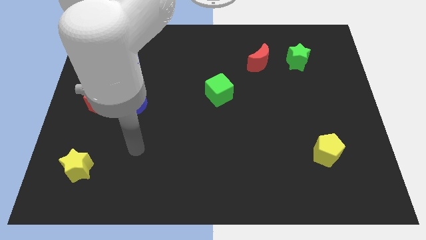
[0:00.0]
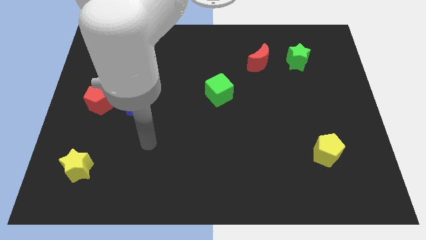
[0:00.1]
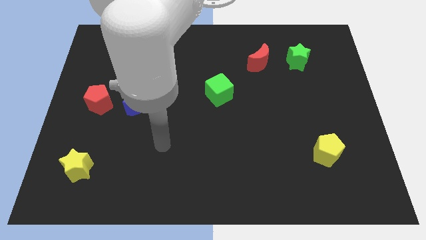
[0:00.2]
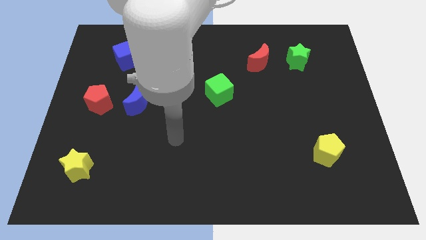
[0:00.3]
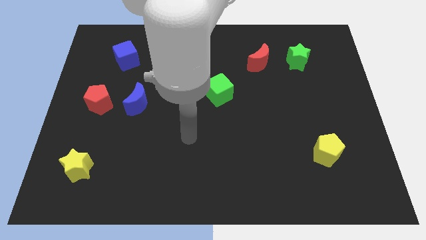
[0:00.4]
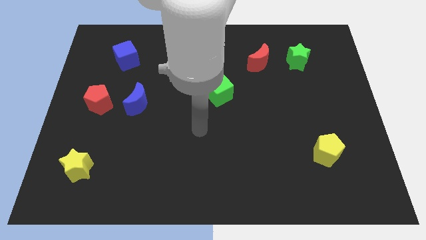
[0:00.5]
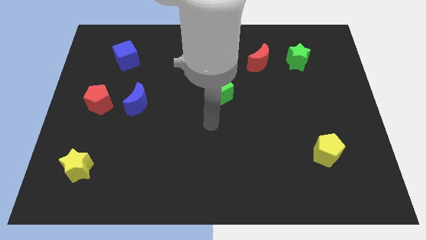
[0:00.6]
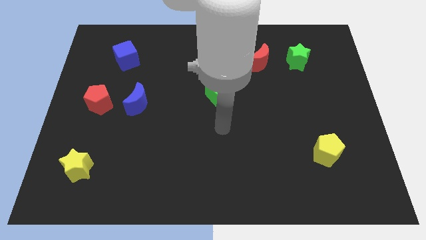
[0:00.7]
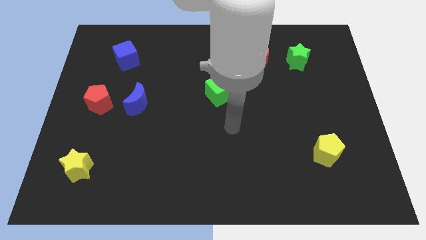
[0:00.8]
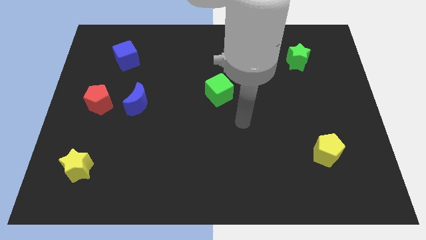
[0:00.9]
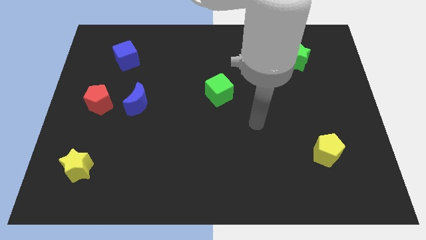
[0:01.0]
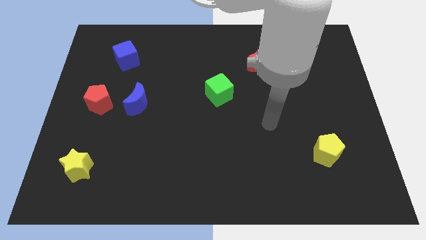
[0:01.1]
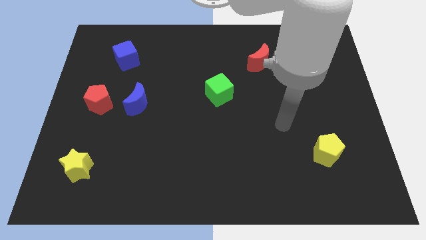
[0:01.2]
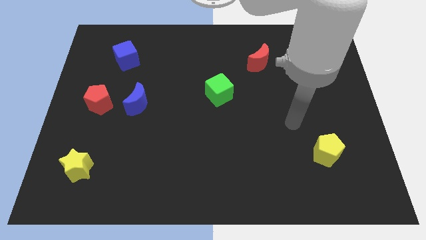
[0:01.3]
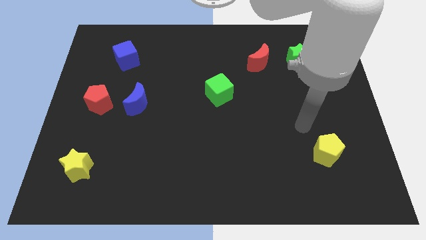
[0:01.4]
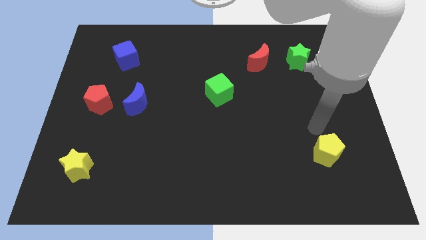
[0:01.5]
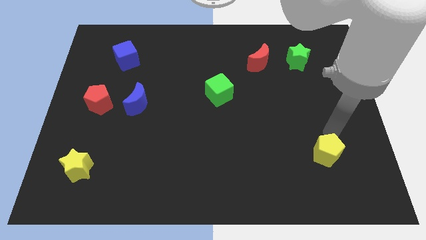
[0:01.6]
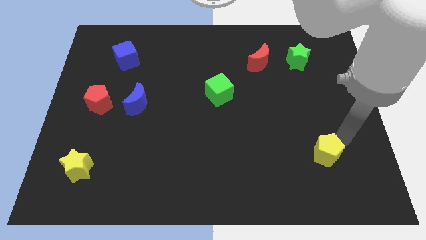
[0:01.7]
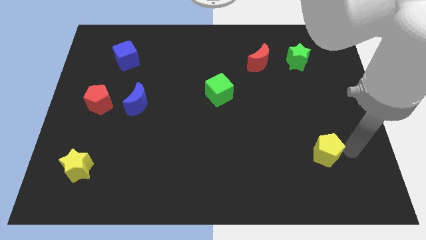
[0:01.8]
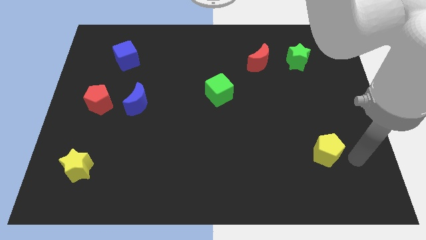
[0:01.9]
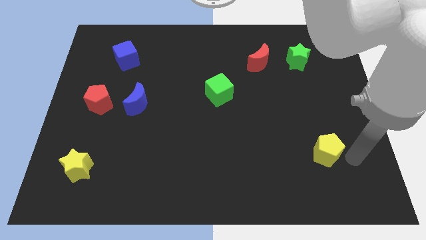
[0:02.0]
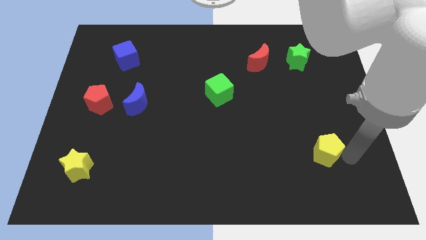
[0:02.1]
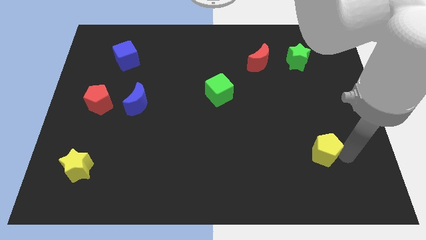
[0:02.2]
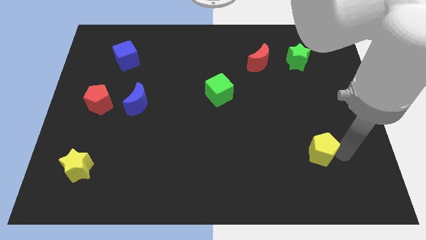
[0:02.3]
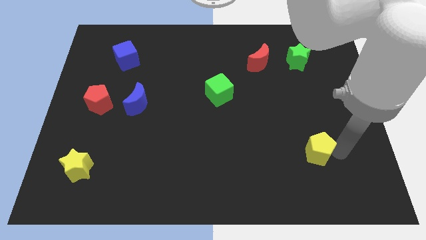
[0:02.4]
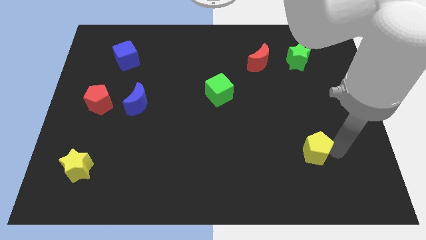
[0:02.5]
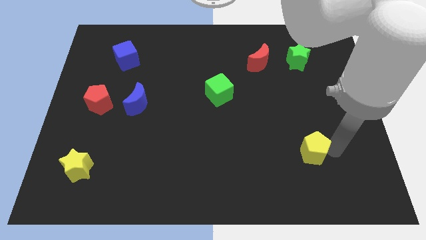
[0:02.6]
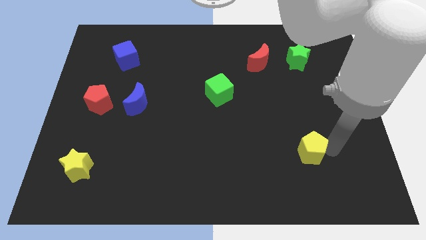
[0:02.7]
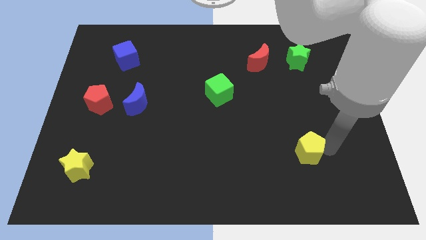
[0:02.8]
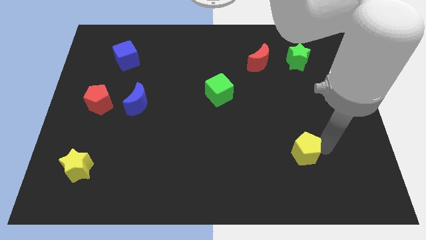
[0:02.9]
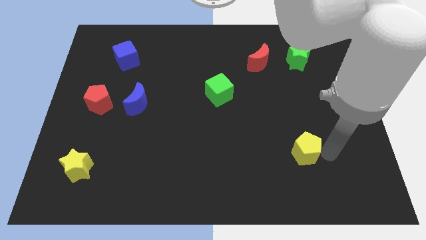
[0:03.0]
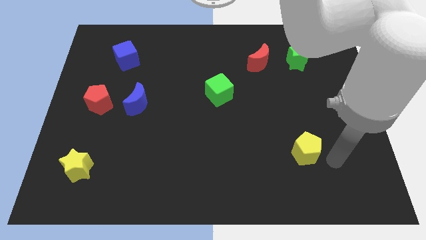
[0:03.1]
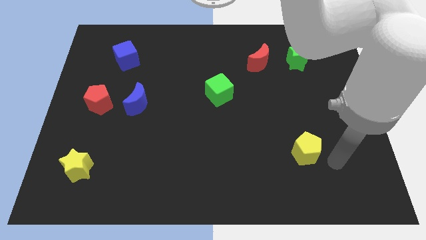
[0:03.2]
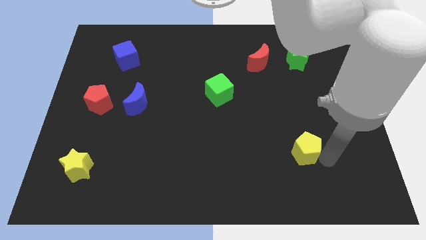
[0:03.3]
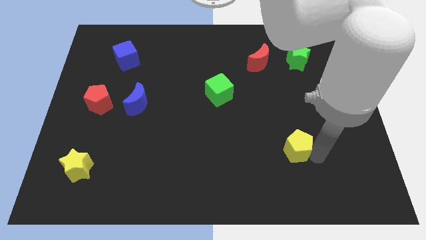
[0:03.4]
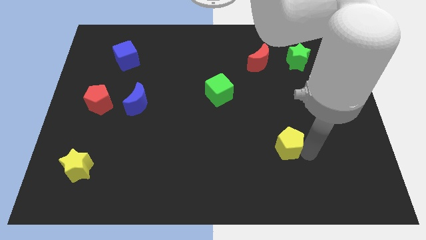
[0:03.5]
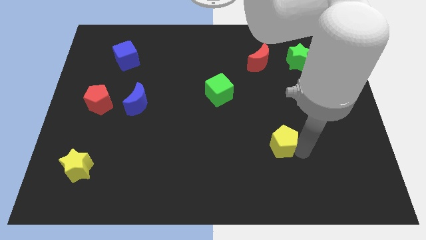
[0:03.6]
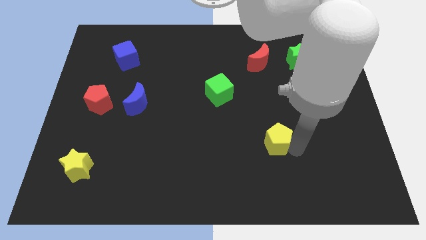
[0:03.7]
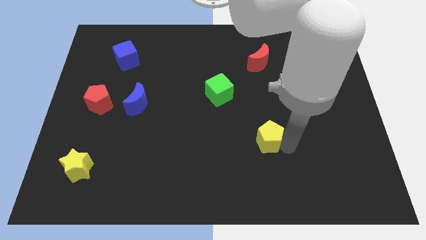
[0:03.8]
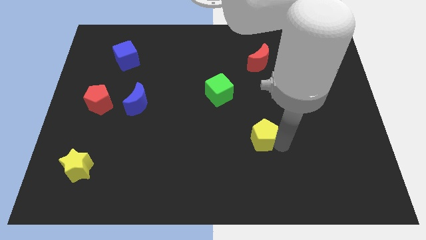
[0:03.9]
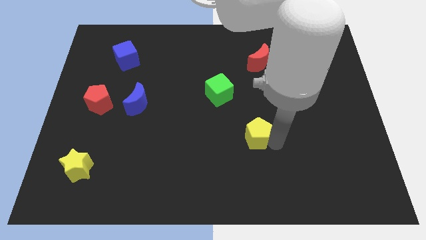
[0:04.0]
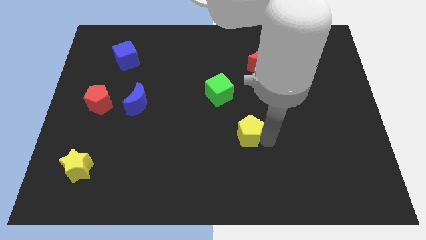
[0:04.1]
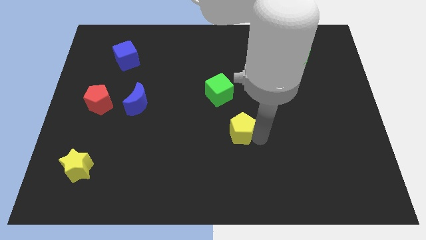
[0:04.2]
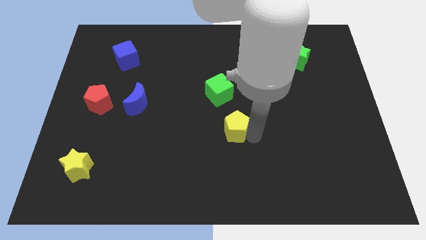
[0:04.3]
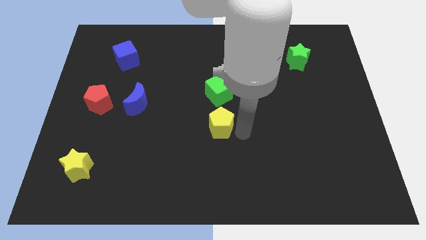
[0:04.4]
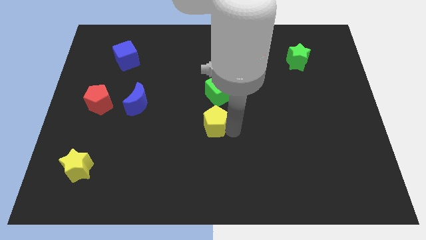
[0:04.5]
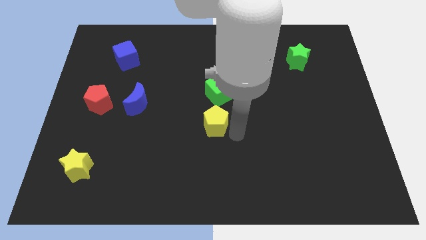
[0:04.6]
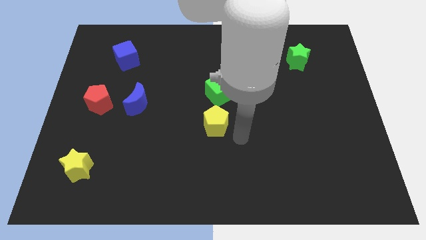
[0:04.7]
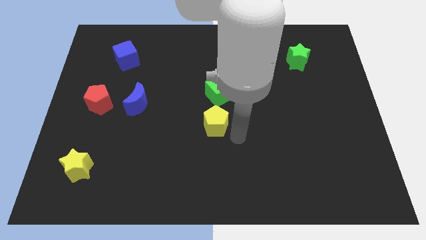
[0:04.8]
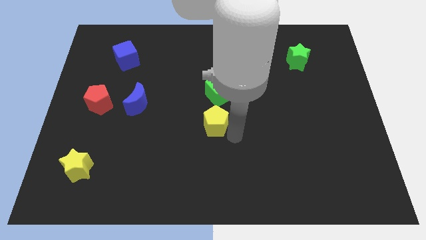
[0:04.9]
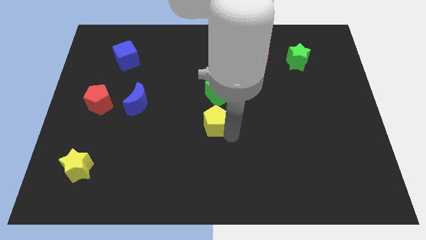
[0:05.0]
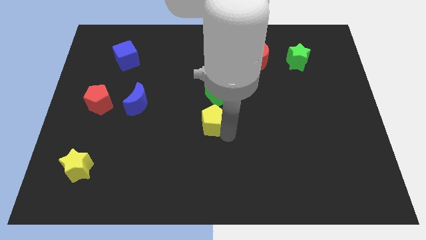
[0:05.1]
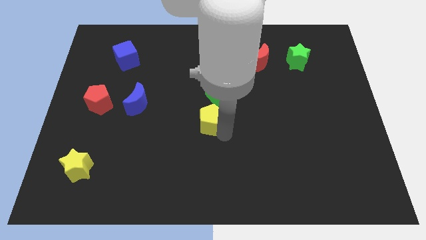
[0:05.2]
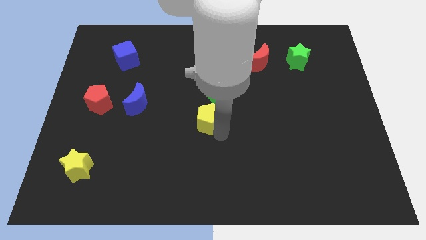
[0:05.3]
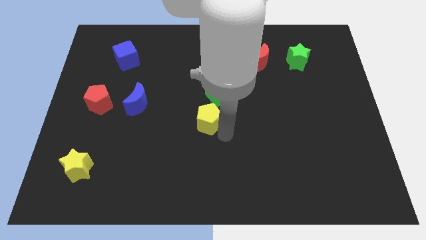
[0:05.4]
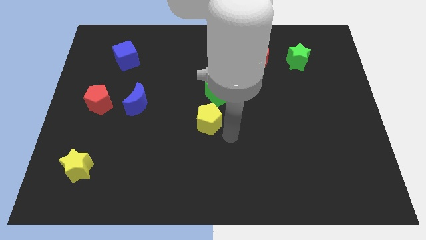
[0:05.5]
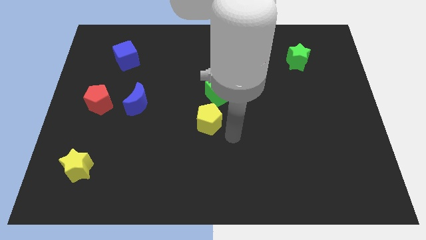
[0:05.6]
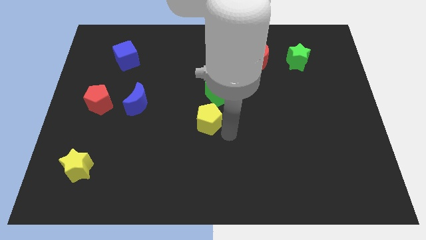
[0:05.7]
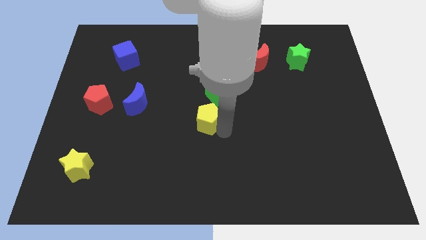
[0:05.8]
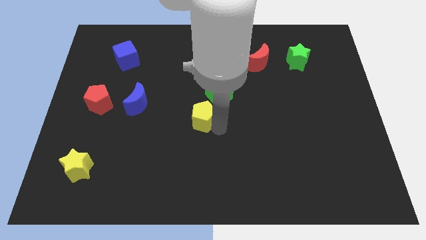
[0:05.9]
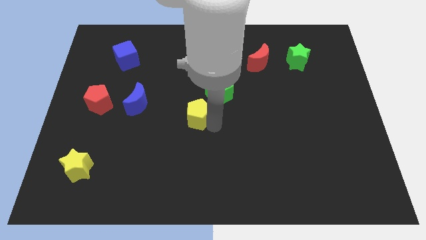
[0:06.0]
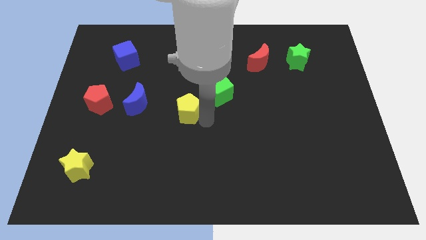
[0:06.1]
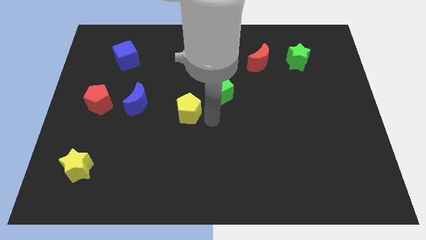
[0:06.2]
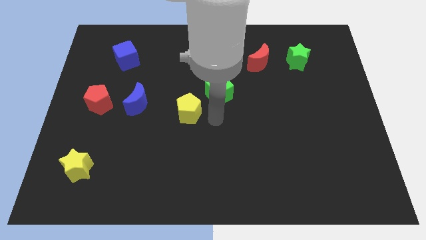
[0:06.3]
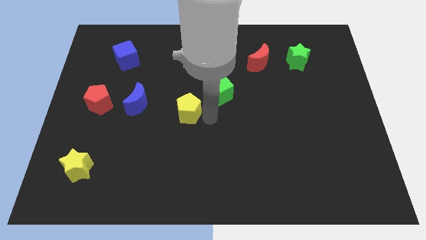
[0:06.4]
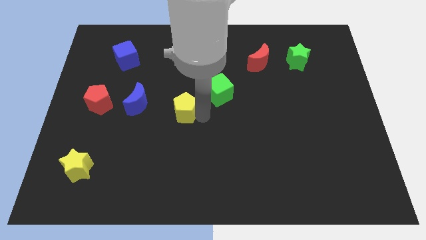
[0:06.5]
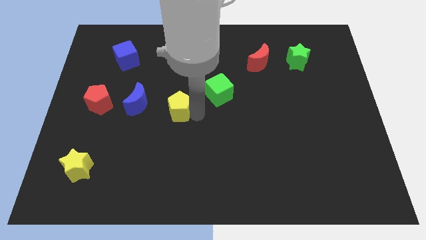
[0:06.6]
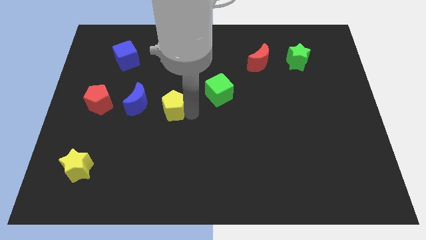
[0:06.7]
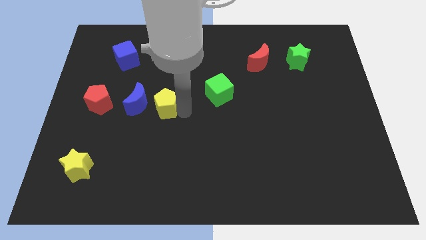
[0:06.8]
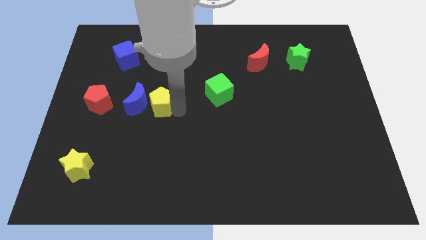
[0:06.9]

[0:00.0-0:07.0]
move the yellow pentagon next to the blue moon
